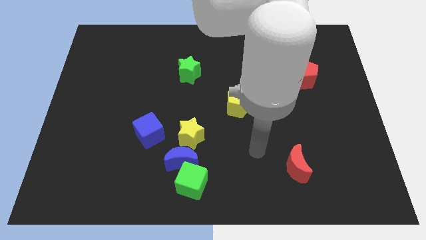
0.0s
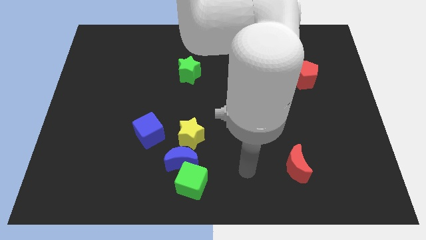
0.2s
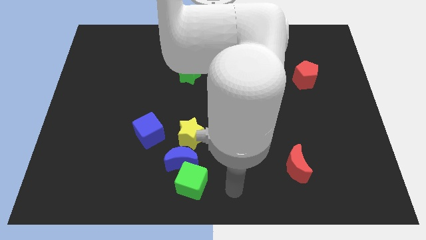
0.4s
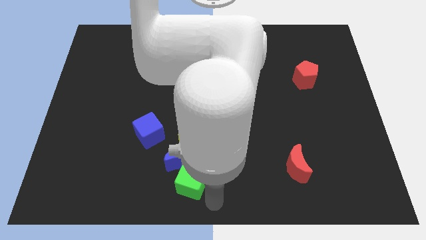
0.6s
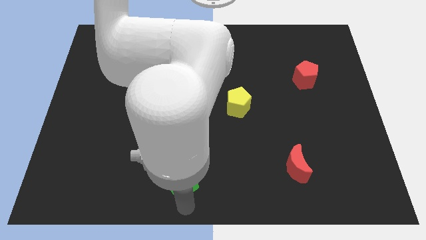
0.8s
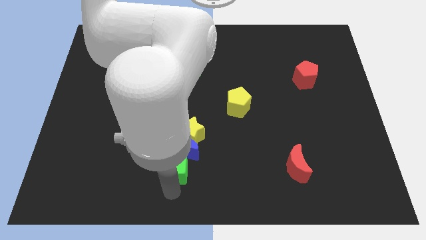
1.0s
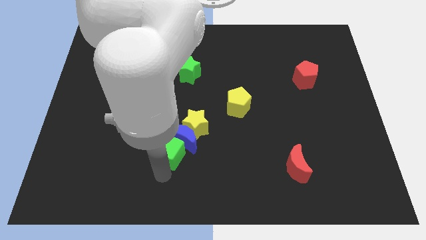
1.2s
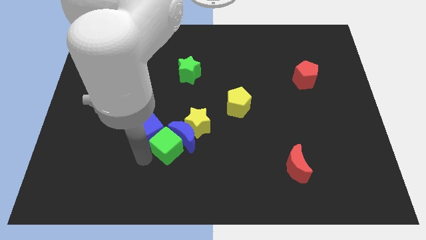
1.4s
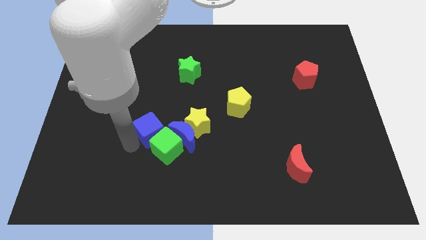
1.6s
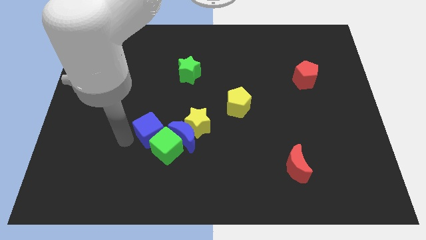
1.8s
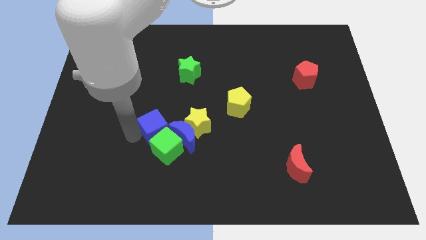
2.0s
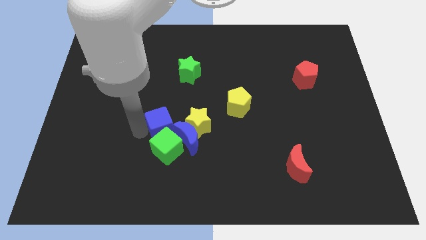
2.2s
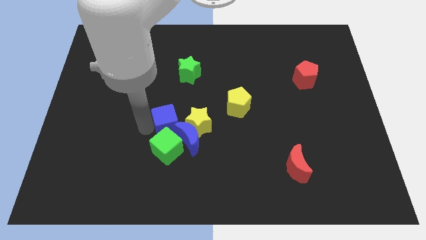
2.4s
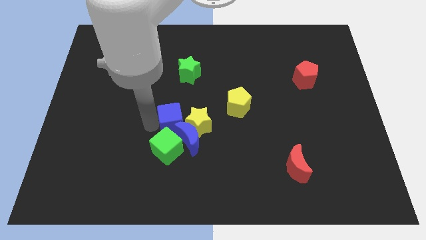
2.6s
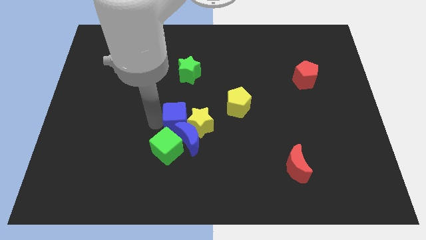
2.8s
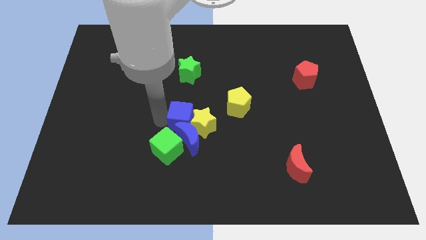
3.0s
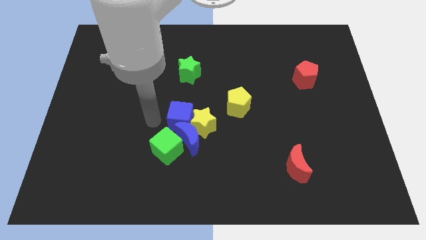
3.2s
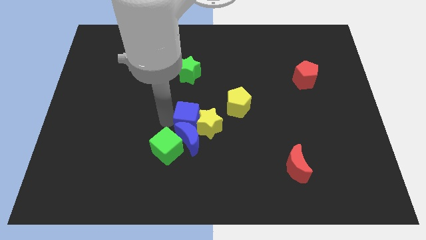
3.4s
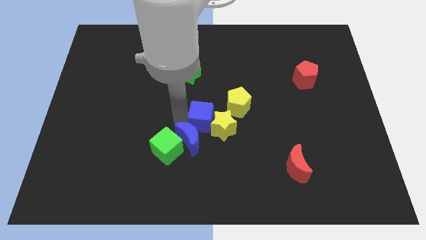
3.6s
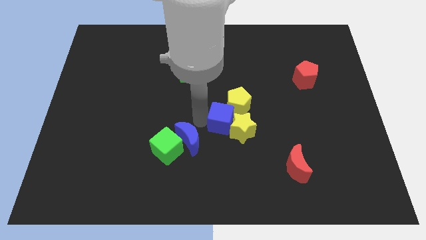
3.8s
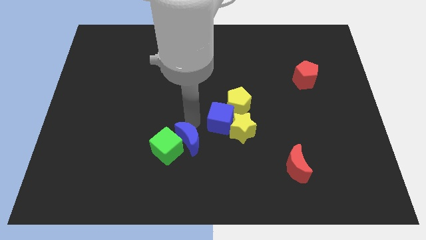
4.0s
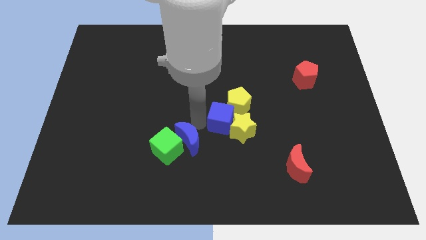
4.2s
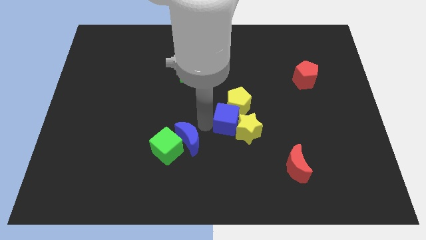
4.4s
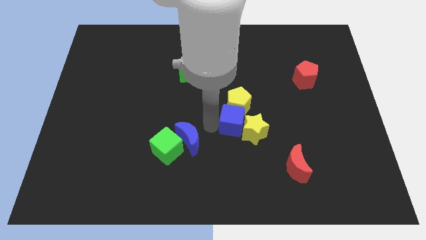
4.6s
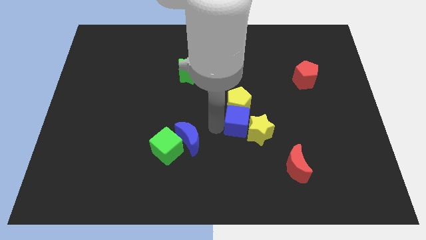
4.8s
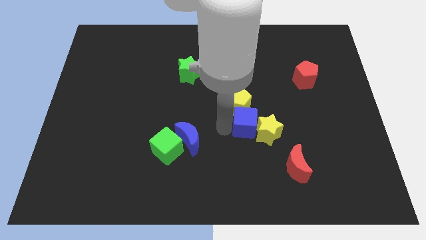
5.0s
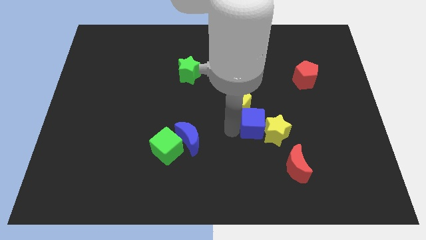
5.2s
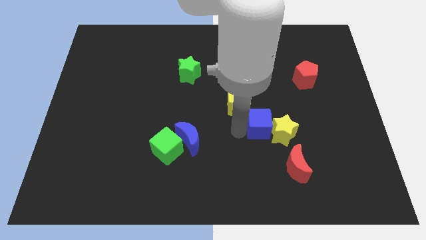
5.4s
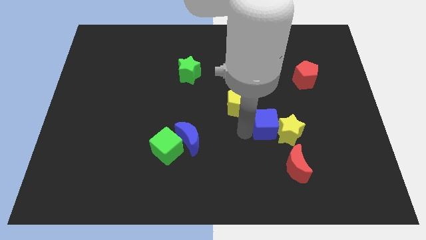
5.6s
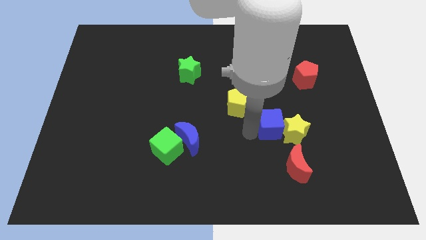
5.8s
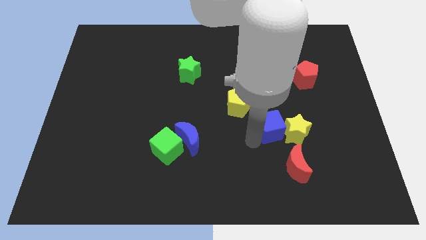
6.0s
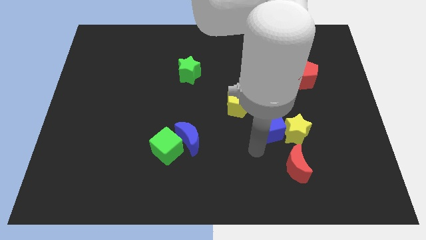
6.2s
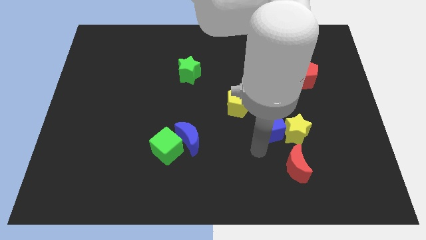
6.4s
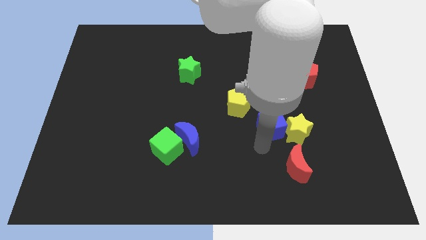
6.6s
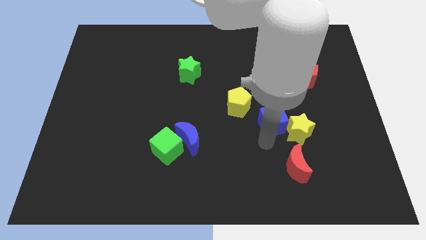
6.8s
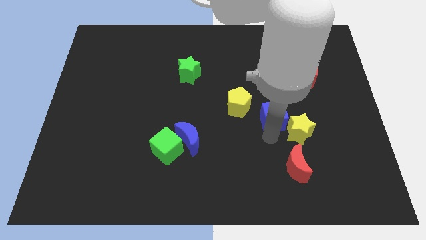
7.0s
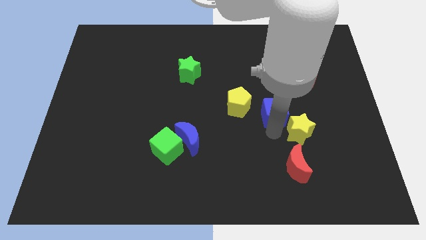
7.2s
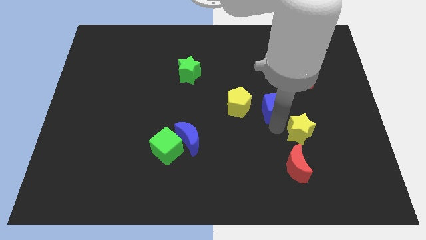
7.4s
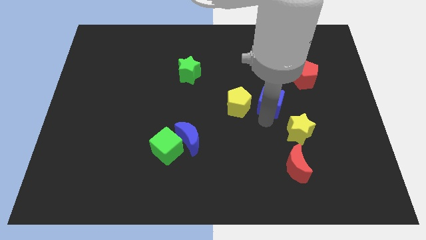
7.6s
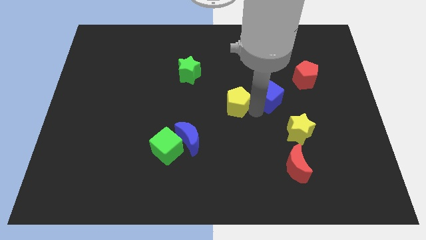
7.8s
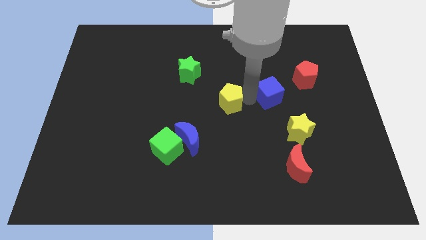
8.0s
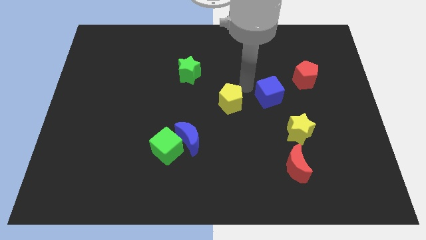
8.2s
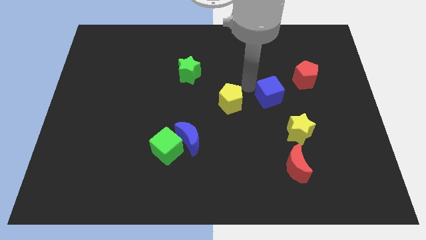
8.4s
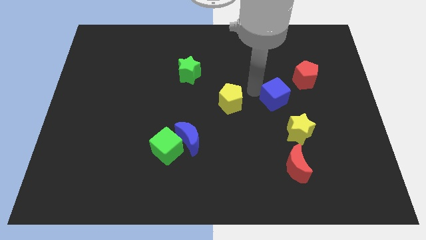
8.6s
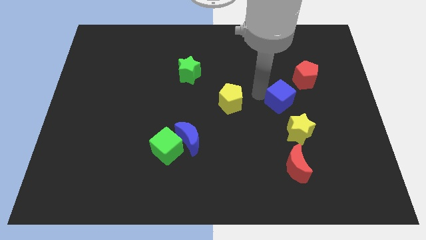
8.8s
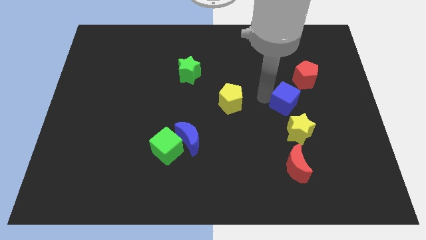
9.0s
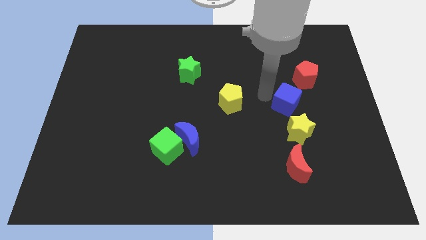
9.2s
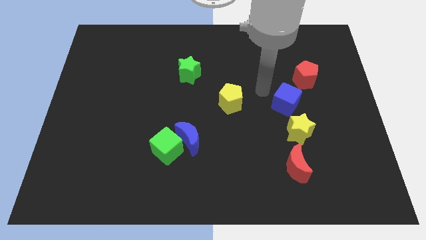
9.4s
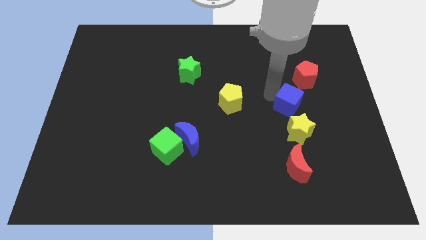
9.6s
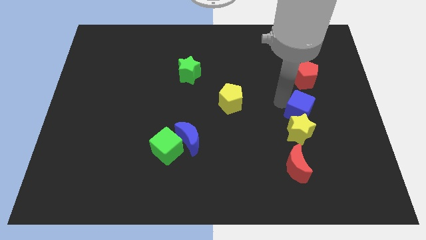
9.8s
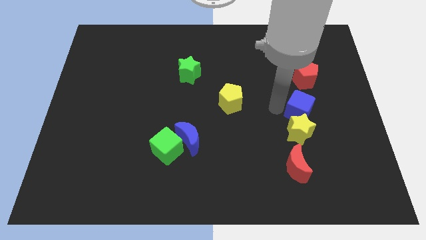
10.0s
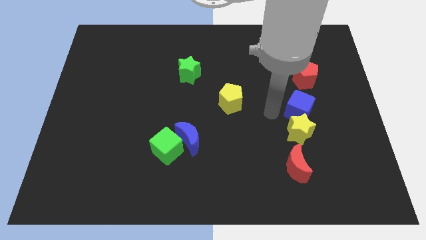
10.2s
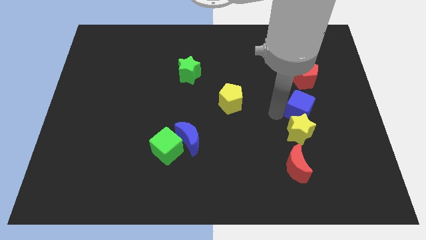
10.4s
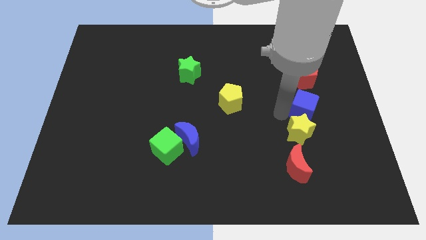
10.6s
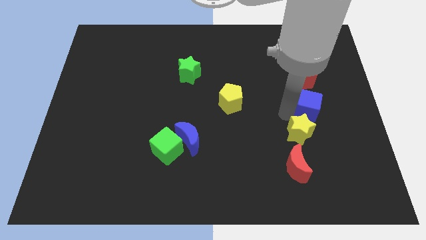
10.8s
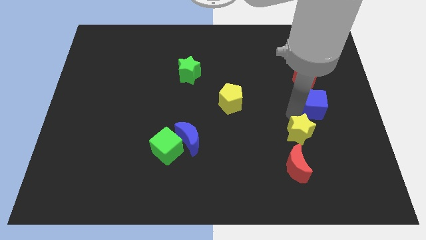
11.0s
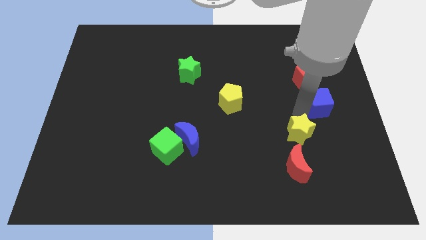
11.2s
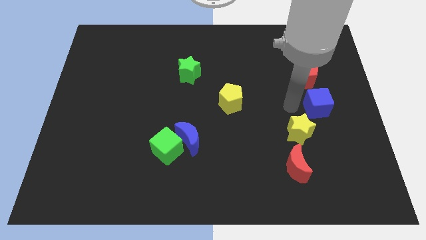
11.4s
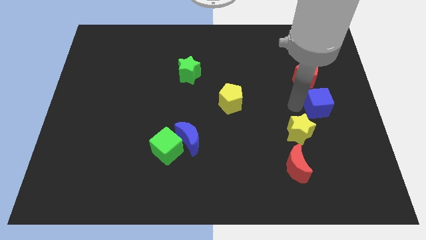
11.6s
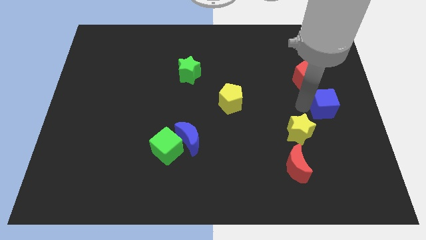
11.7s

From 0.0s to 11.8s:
move the blue cube to the right side of the board

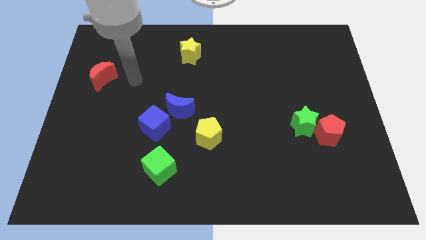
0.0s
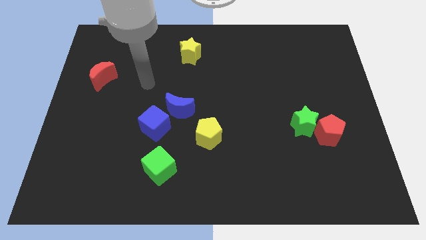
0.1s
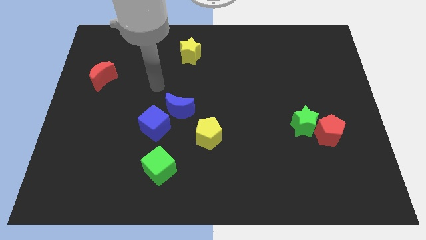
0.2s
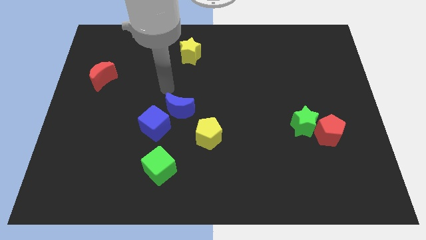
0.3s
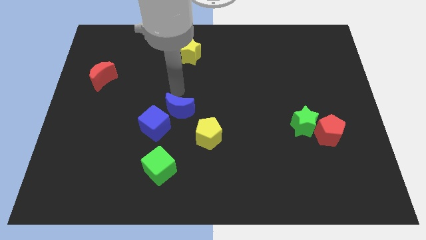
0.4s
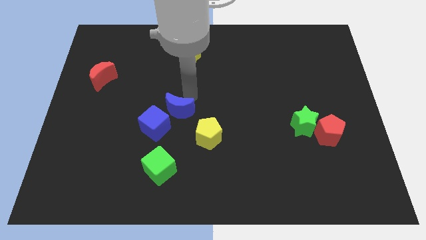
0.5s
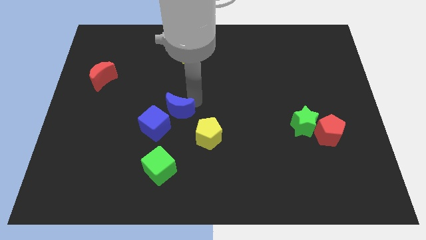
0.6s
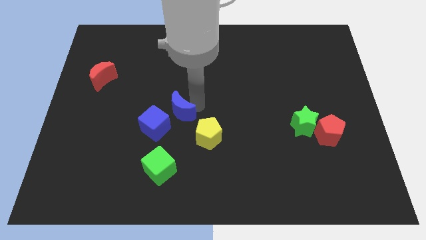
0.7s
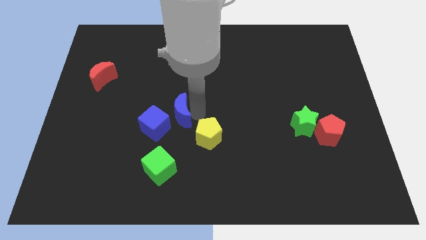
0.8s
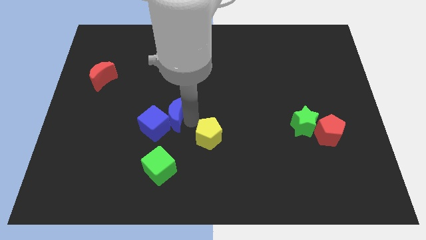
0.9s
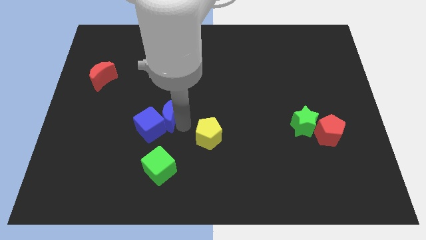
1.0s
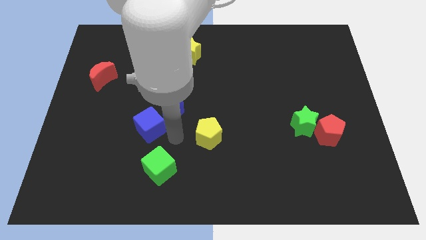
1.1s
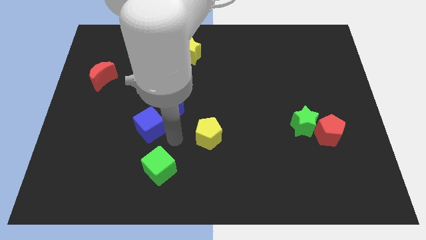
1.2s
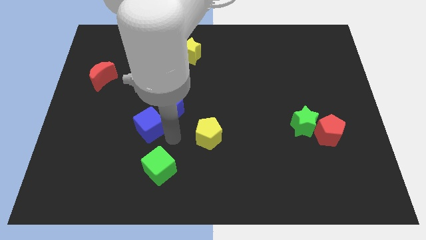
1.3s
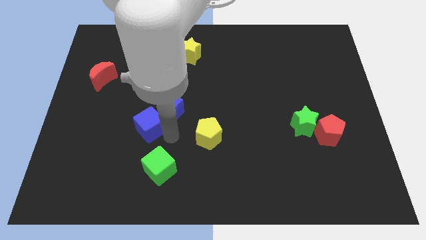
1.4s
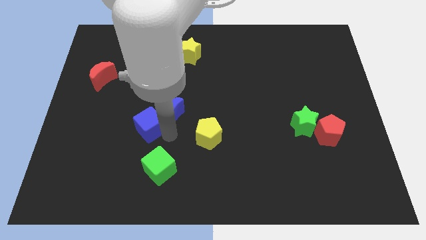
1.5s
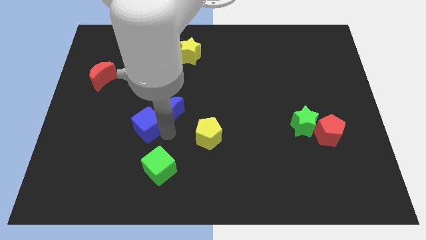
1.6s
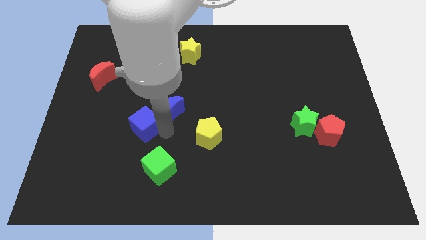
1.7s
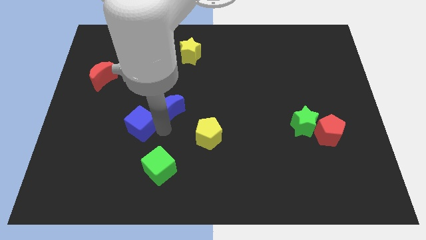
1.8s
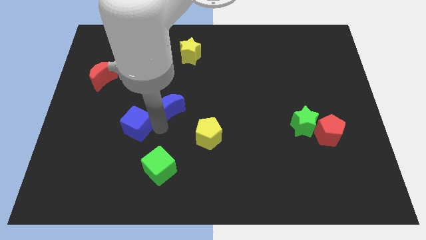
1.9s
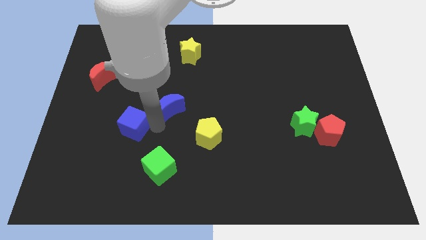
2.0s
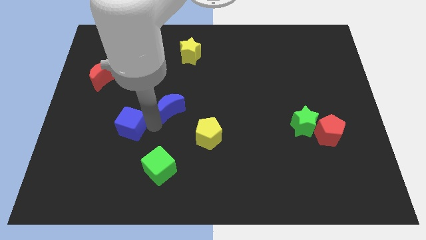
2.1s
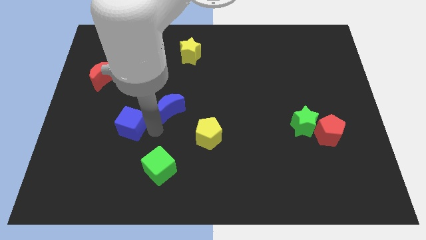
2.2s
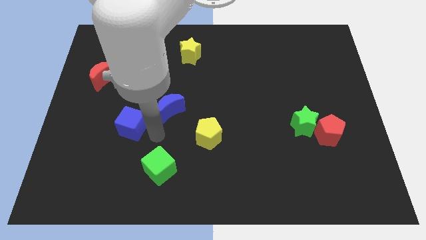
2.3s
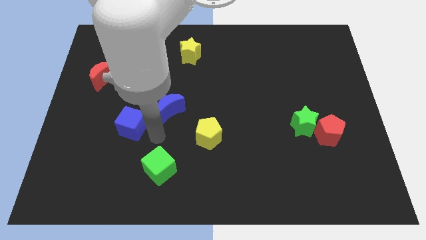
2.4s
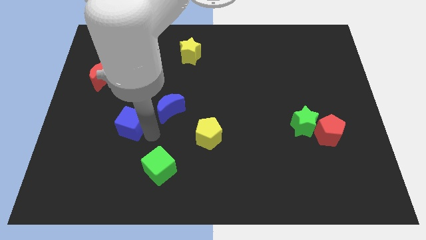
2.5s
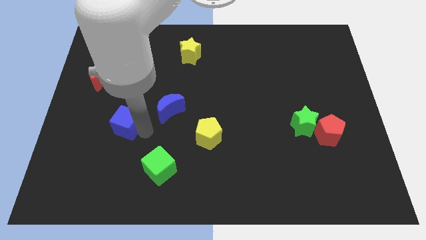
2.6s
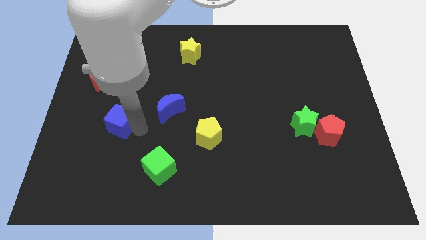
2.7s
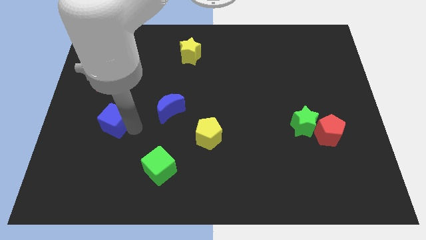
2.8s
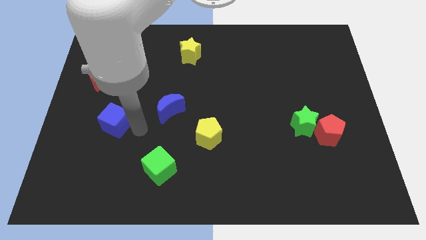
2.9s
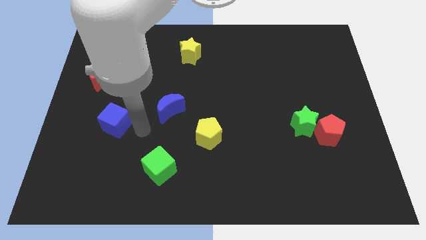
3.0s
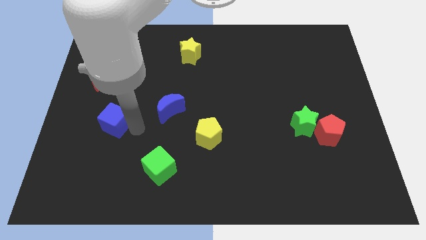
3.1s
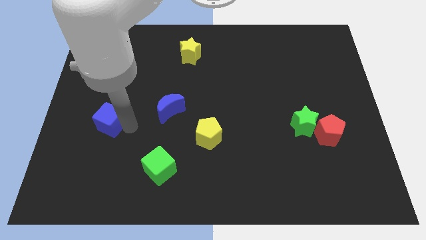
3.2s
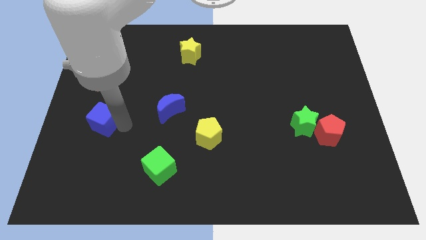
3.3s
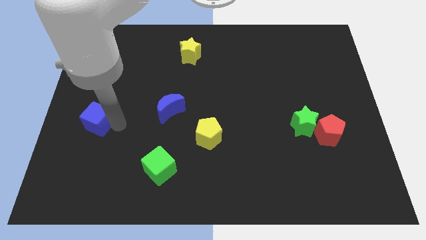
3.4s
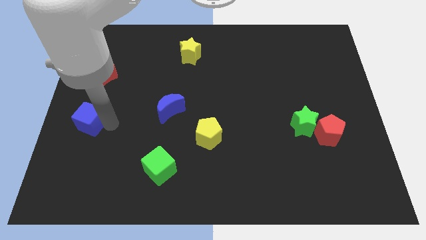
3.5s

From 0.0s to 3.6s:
move the blue cube to the center left
